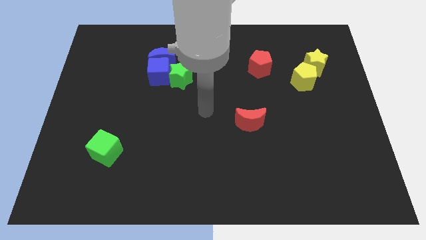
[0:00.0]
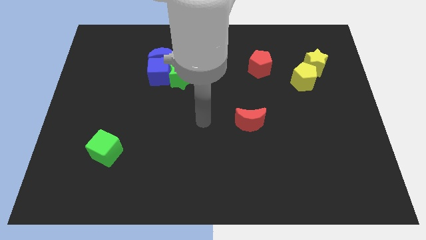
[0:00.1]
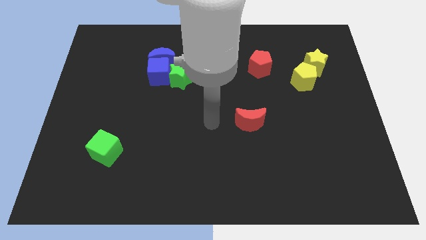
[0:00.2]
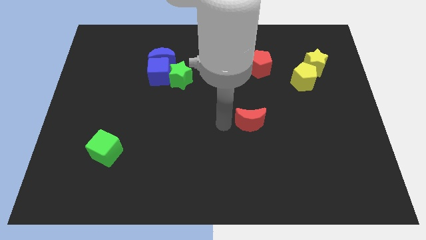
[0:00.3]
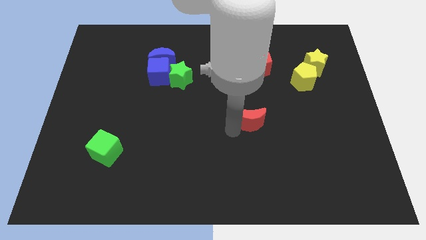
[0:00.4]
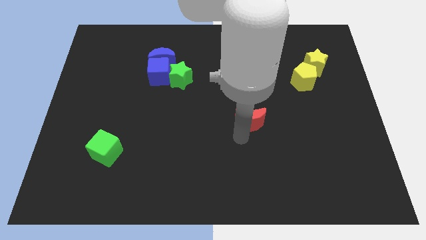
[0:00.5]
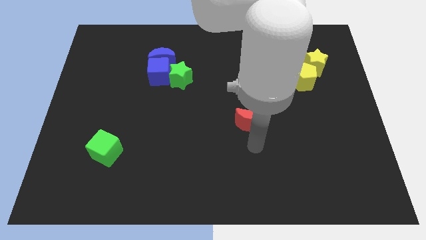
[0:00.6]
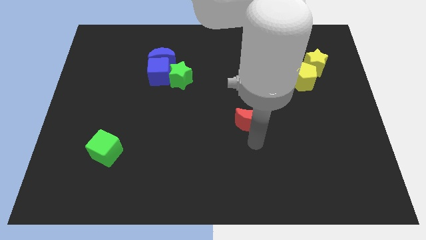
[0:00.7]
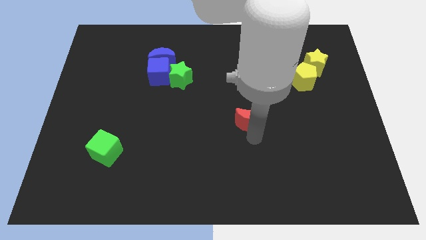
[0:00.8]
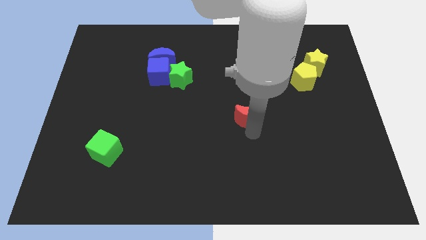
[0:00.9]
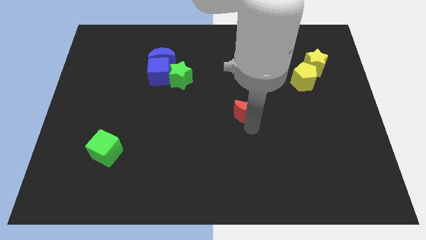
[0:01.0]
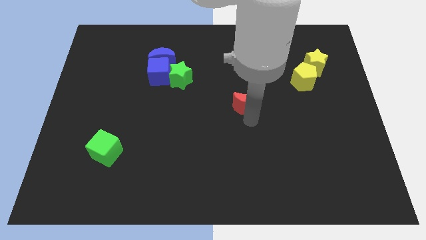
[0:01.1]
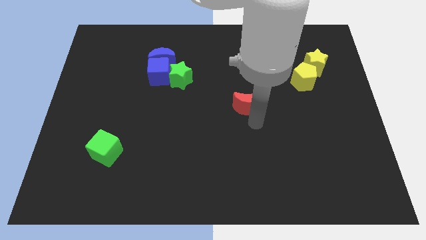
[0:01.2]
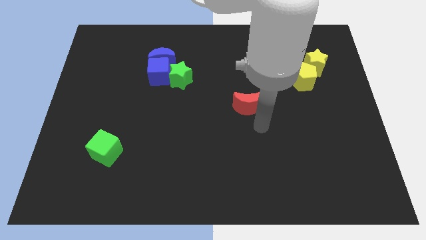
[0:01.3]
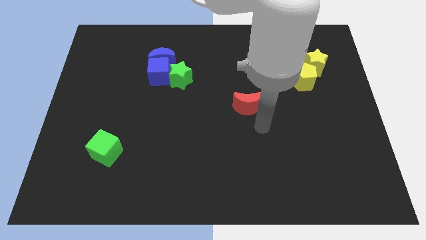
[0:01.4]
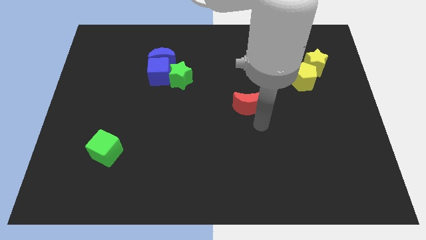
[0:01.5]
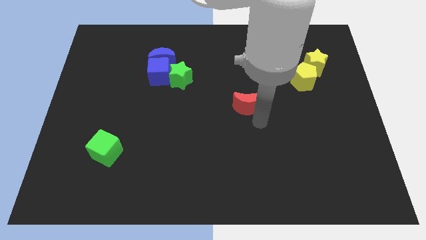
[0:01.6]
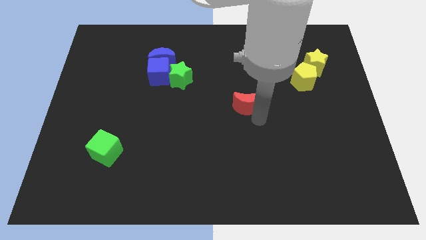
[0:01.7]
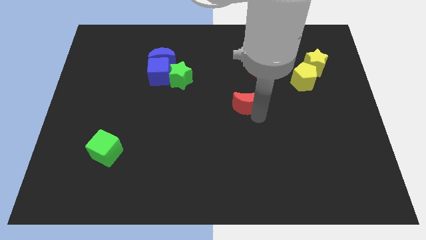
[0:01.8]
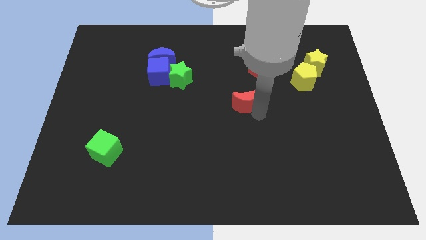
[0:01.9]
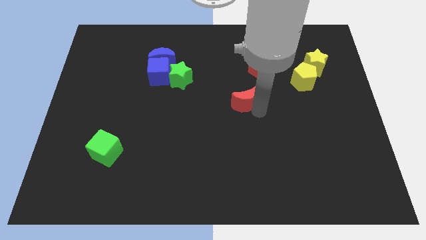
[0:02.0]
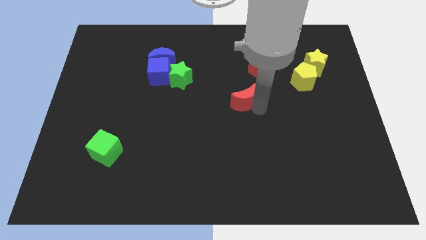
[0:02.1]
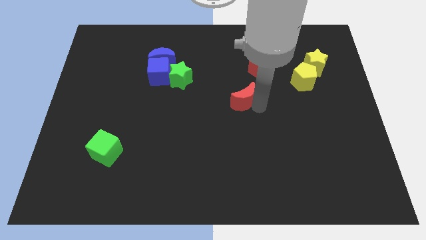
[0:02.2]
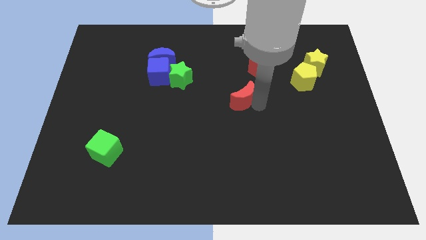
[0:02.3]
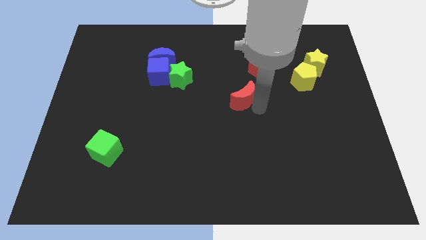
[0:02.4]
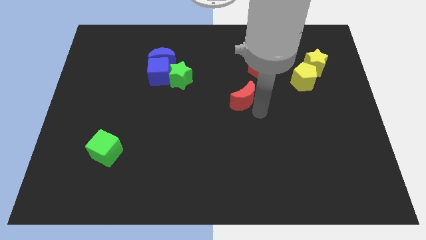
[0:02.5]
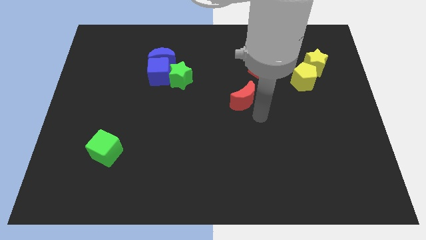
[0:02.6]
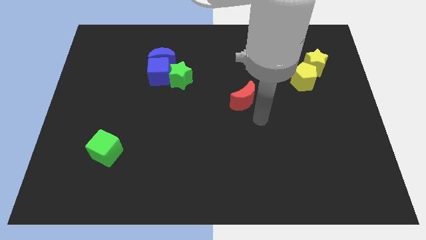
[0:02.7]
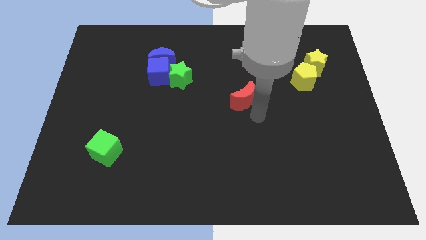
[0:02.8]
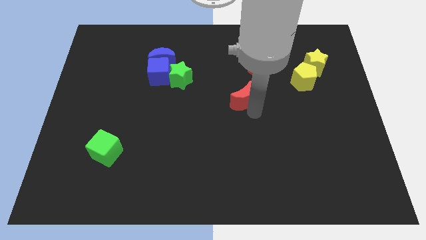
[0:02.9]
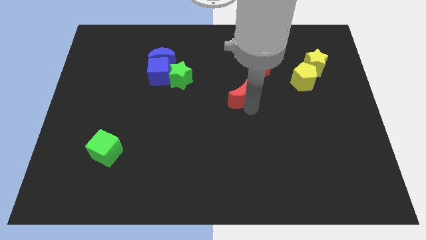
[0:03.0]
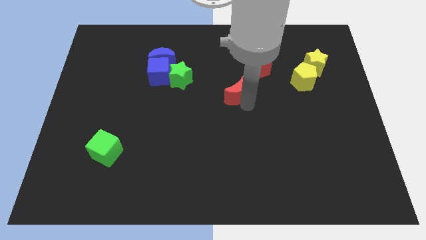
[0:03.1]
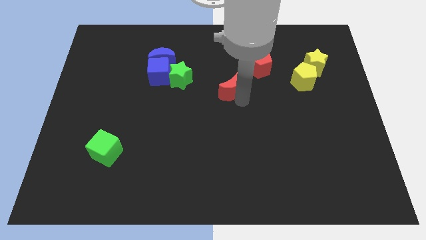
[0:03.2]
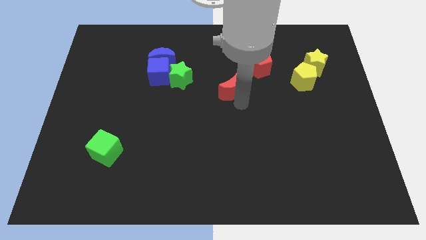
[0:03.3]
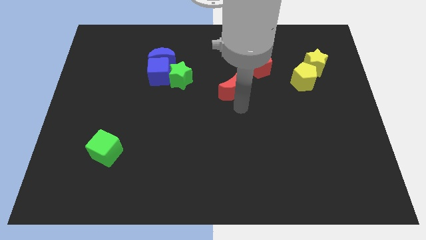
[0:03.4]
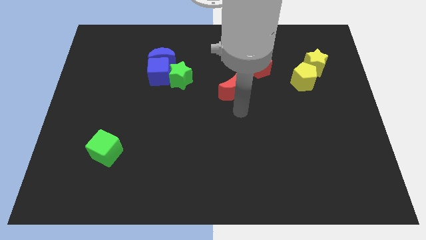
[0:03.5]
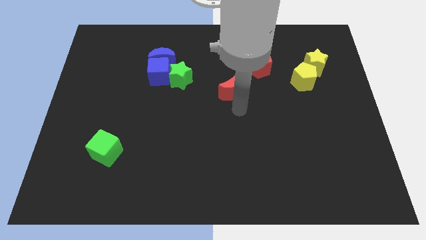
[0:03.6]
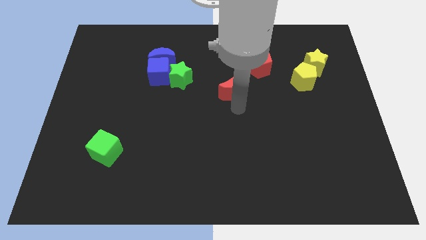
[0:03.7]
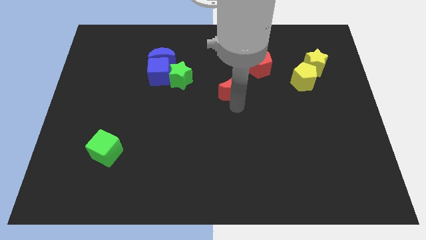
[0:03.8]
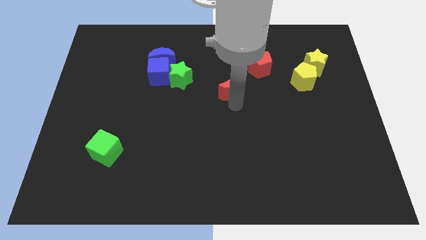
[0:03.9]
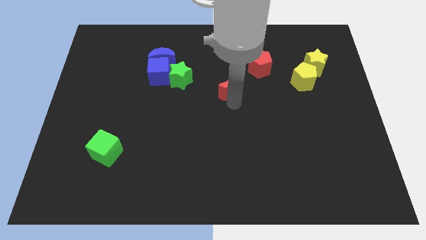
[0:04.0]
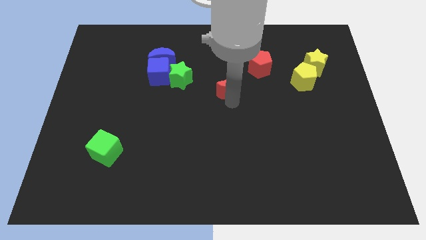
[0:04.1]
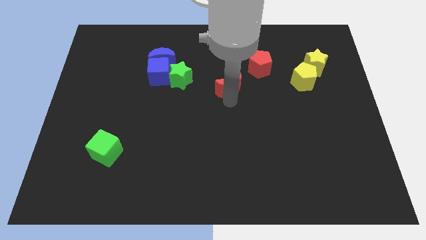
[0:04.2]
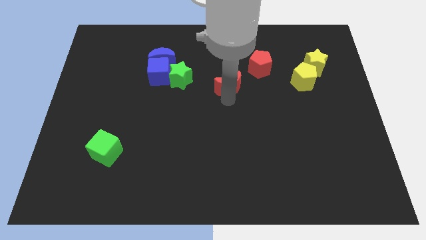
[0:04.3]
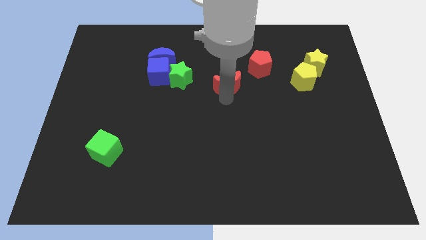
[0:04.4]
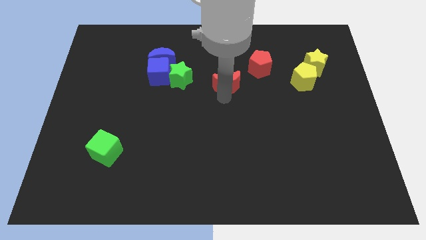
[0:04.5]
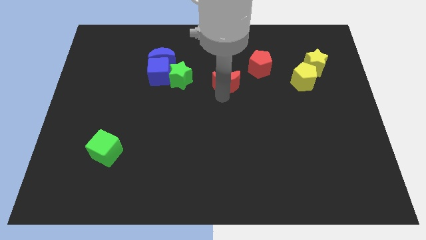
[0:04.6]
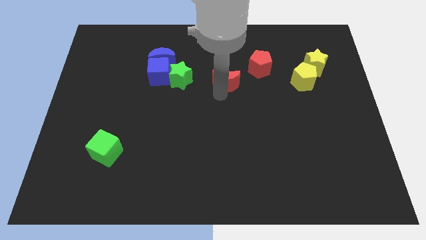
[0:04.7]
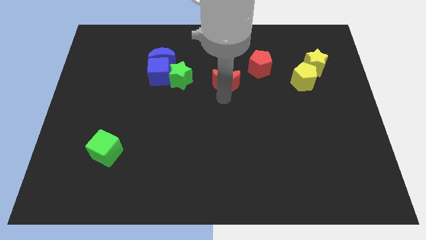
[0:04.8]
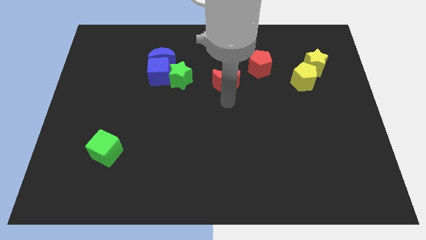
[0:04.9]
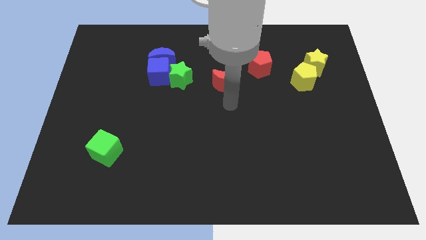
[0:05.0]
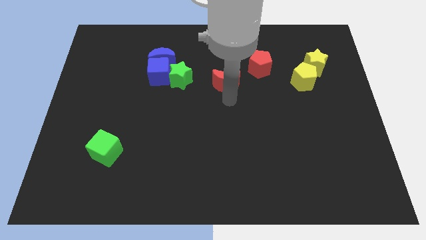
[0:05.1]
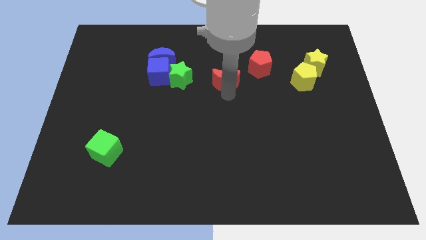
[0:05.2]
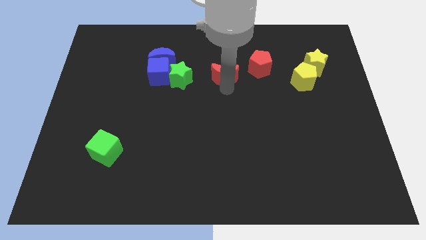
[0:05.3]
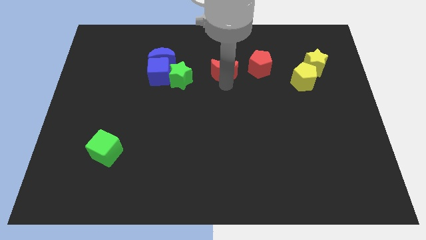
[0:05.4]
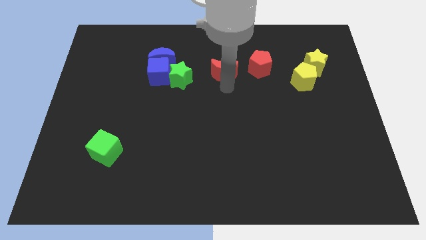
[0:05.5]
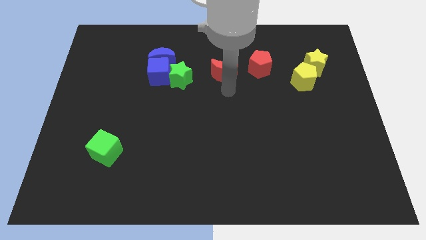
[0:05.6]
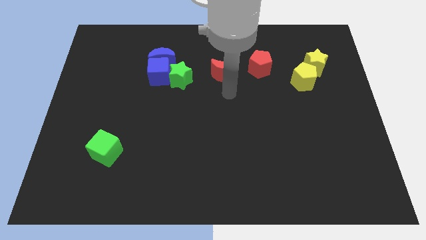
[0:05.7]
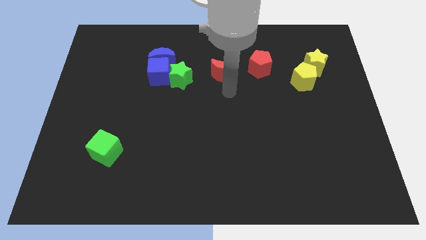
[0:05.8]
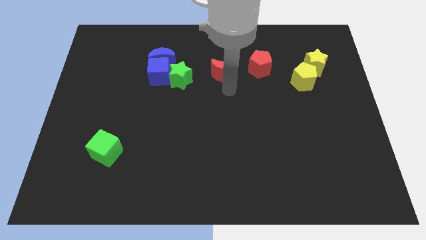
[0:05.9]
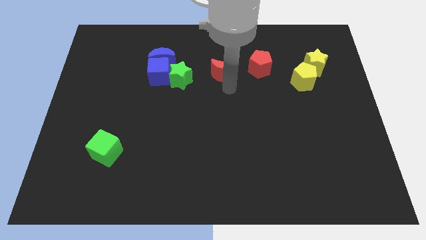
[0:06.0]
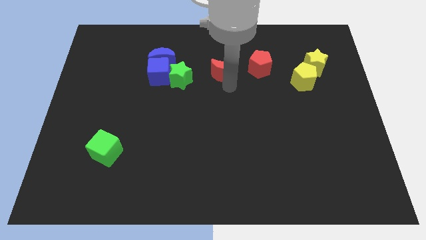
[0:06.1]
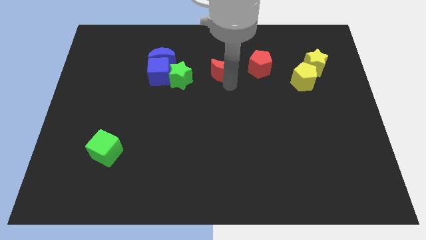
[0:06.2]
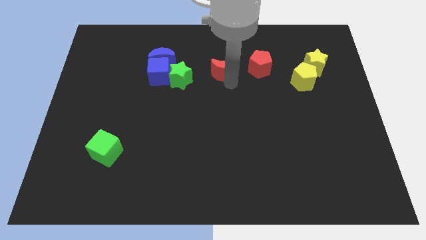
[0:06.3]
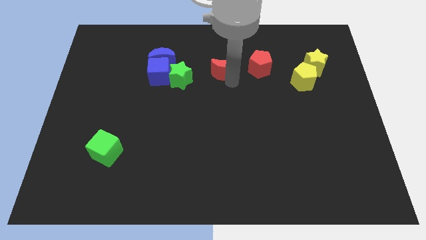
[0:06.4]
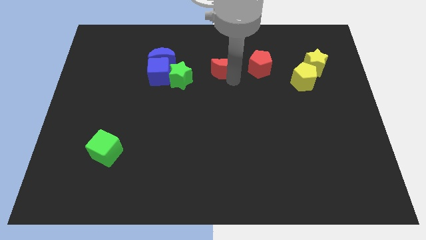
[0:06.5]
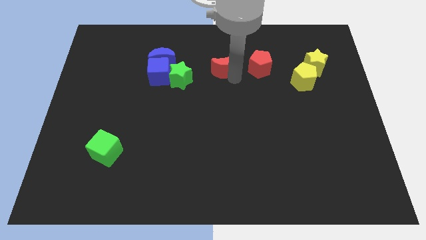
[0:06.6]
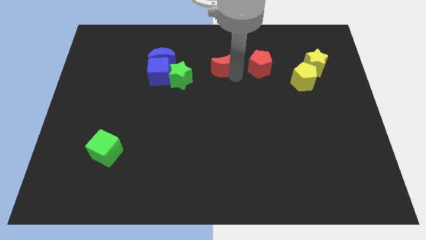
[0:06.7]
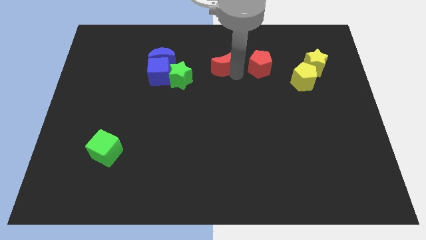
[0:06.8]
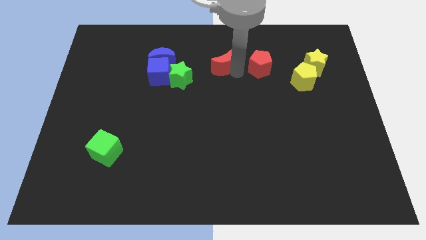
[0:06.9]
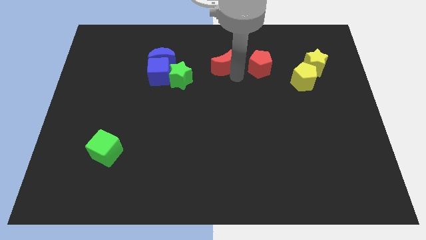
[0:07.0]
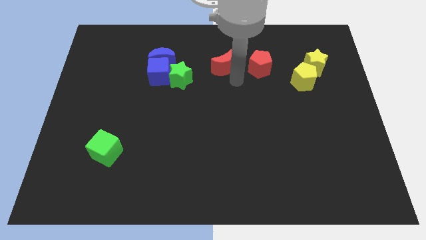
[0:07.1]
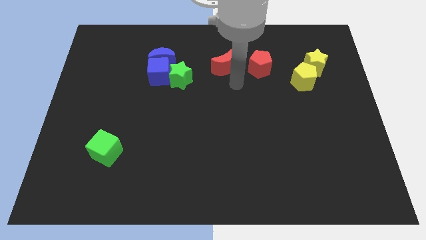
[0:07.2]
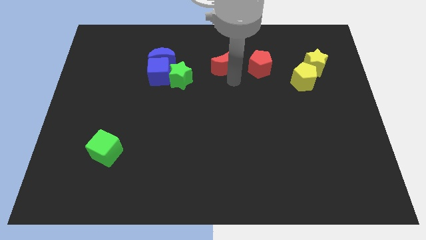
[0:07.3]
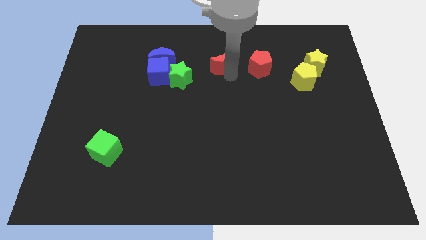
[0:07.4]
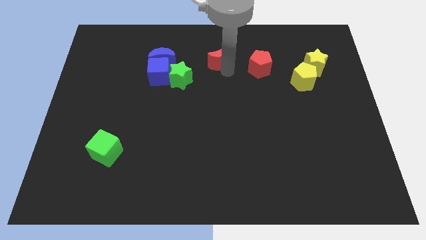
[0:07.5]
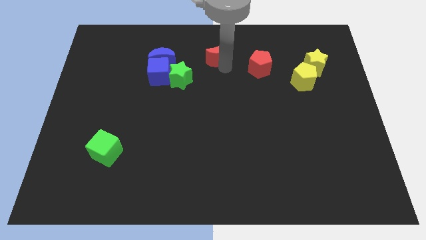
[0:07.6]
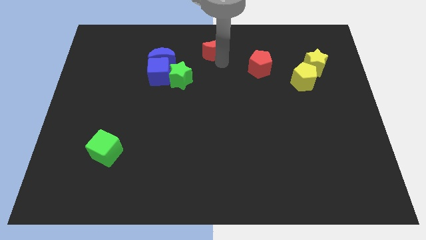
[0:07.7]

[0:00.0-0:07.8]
put the red moon to the top
